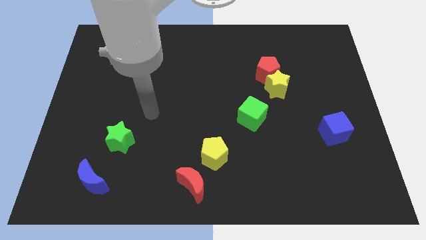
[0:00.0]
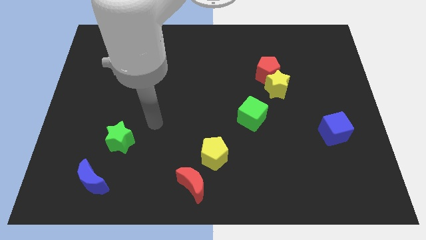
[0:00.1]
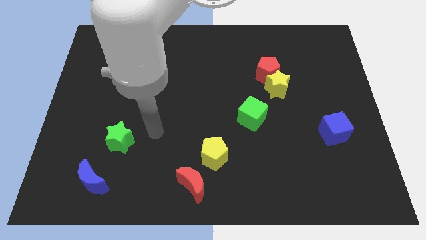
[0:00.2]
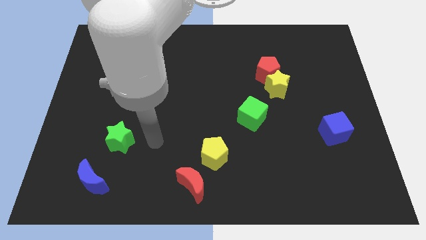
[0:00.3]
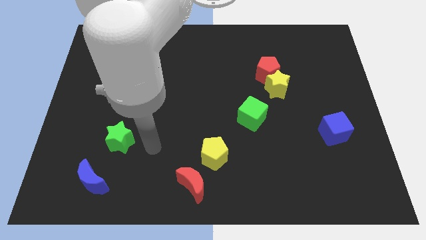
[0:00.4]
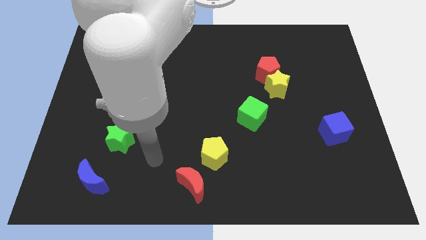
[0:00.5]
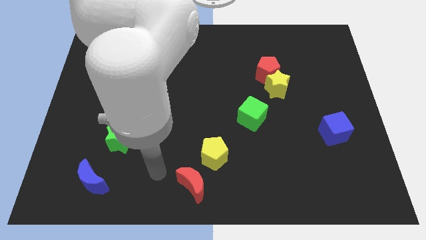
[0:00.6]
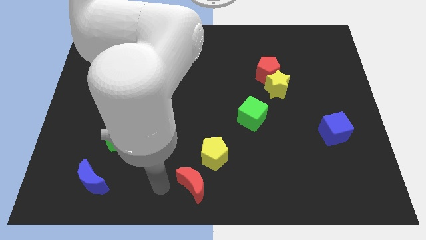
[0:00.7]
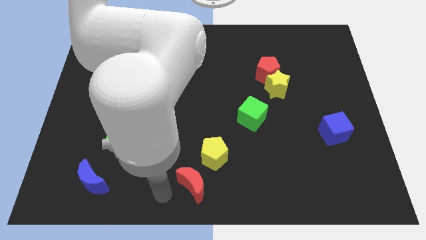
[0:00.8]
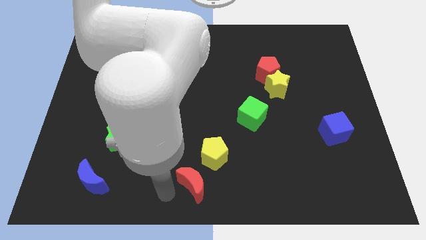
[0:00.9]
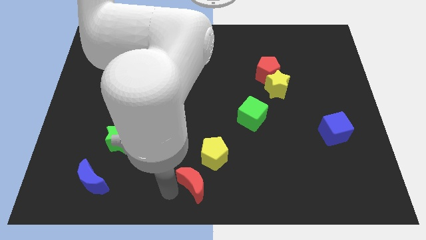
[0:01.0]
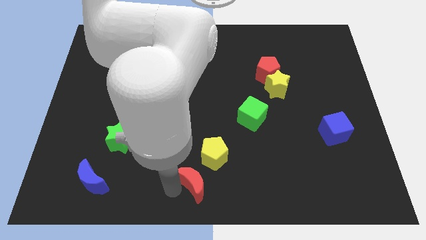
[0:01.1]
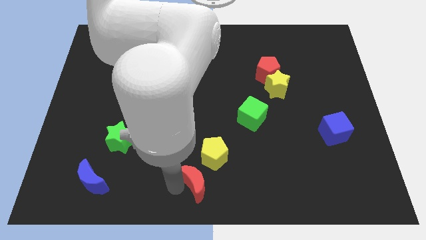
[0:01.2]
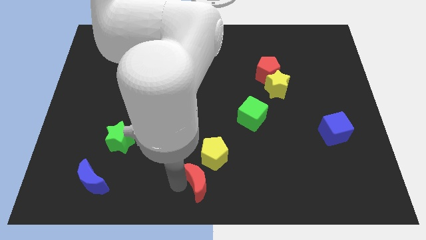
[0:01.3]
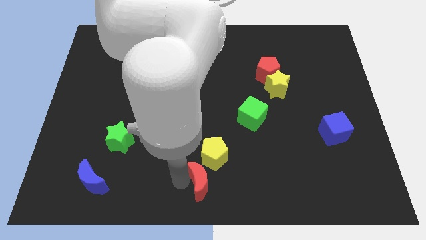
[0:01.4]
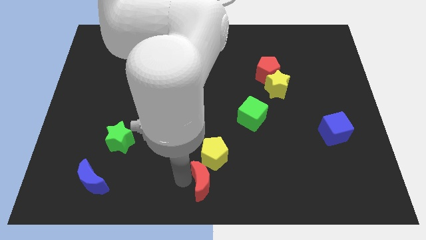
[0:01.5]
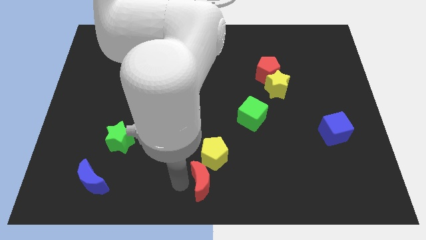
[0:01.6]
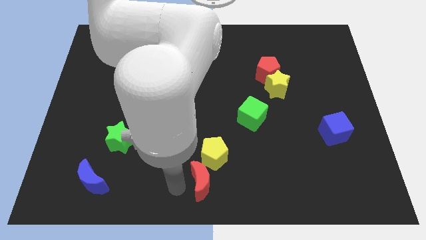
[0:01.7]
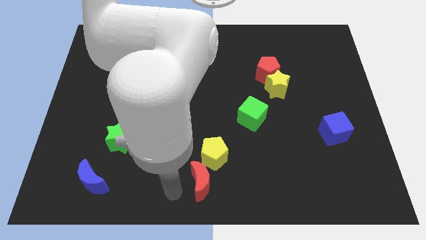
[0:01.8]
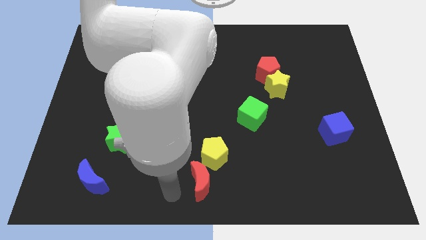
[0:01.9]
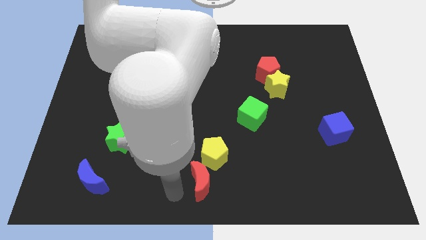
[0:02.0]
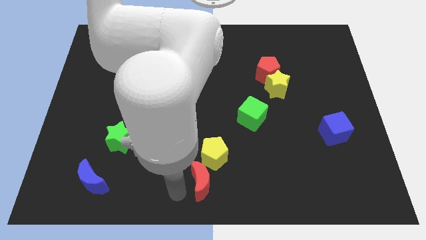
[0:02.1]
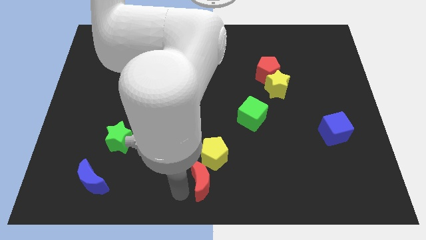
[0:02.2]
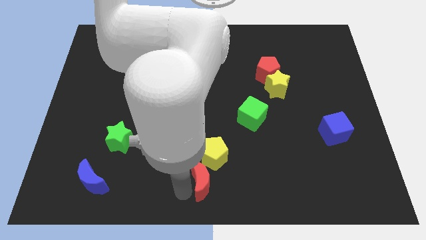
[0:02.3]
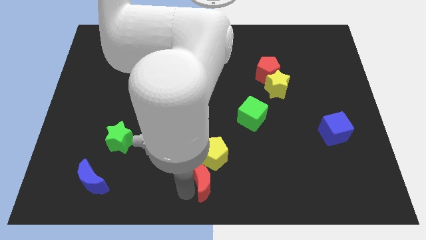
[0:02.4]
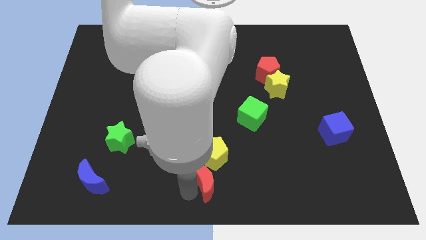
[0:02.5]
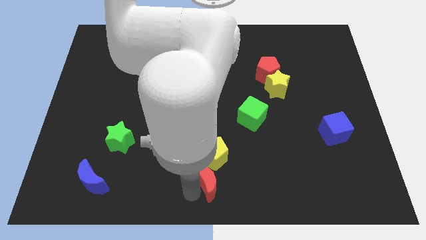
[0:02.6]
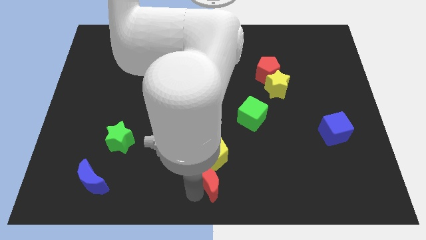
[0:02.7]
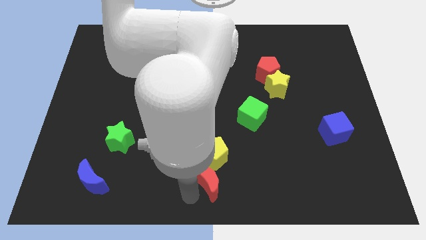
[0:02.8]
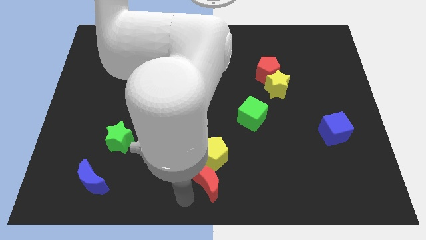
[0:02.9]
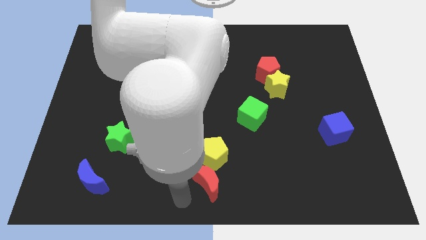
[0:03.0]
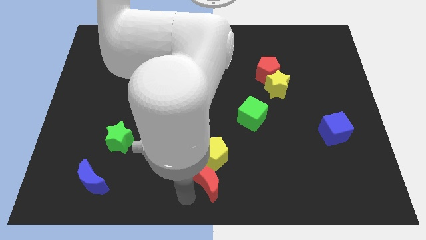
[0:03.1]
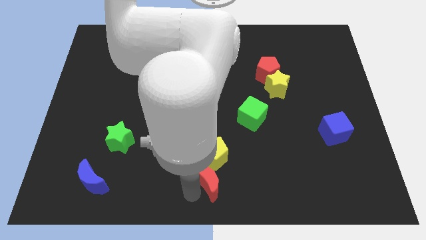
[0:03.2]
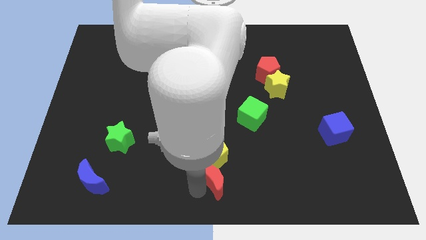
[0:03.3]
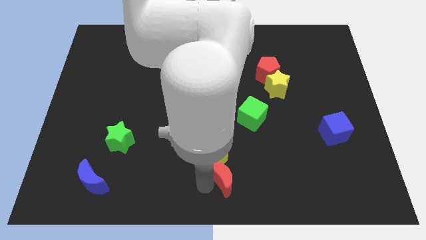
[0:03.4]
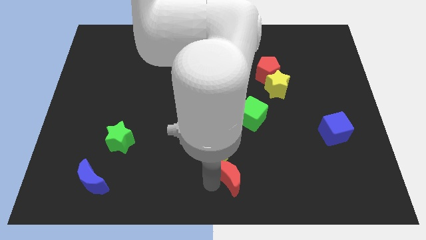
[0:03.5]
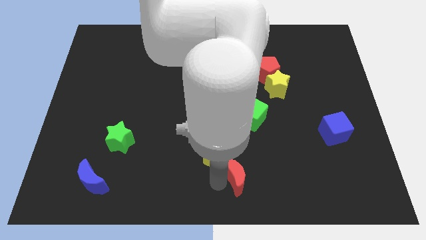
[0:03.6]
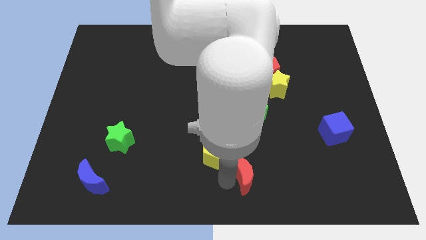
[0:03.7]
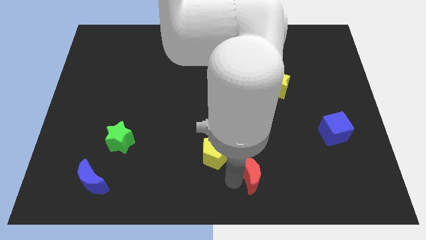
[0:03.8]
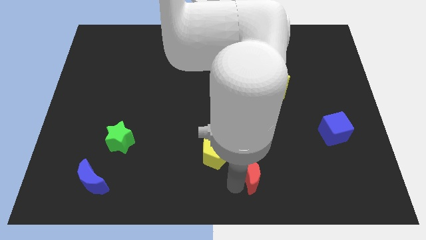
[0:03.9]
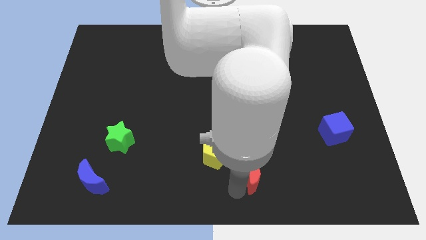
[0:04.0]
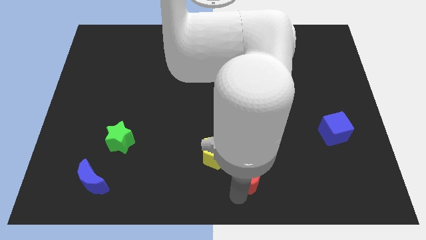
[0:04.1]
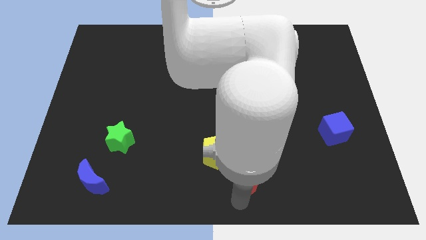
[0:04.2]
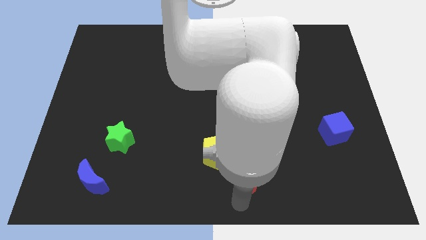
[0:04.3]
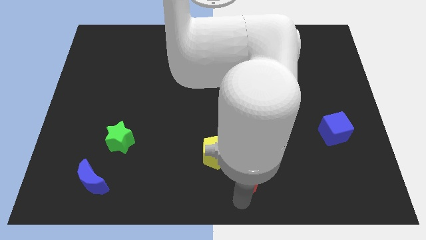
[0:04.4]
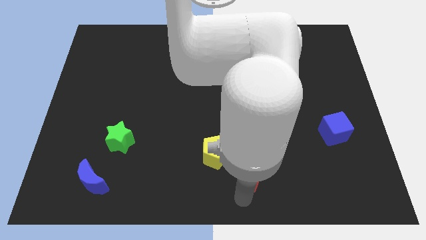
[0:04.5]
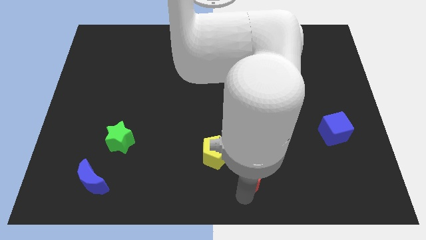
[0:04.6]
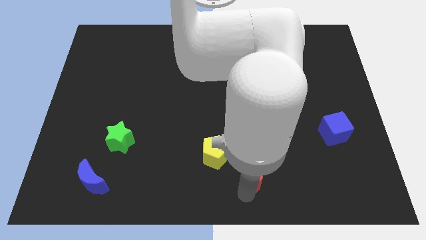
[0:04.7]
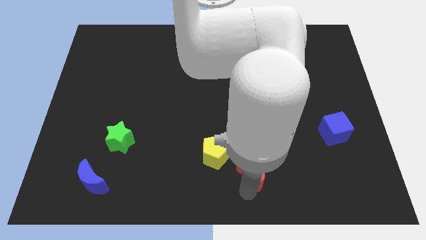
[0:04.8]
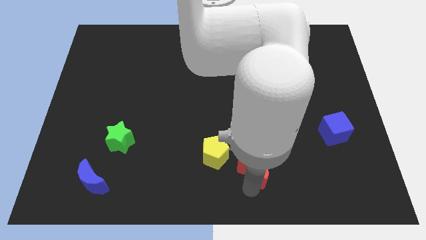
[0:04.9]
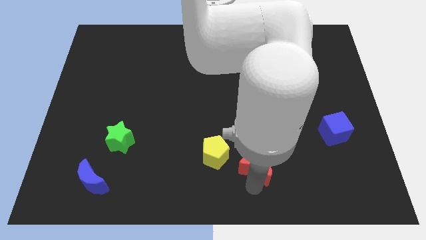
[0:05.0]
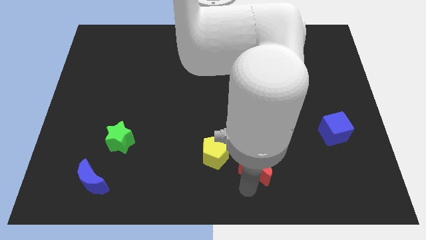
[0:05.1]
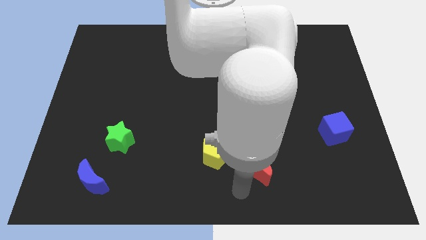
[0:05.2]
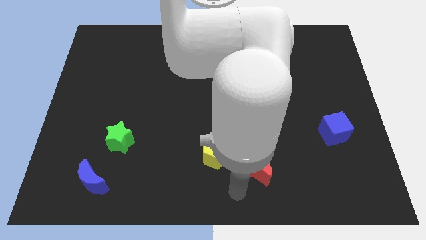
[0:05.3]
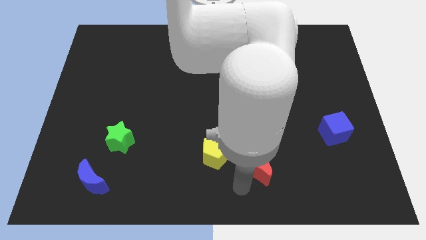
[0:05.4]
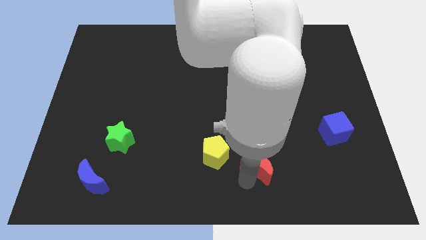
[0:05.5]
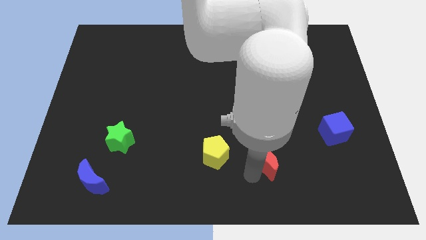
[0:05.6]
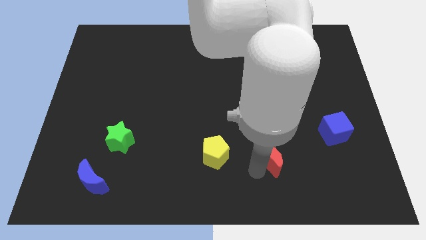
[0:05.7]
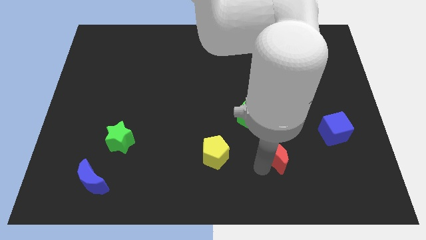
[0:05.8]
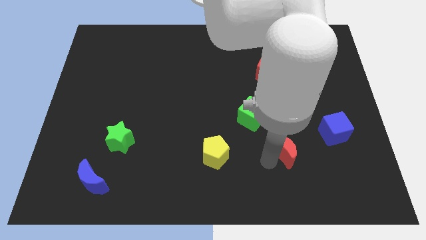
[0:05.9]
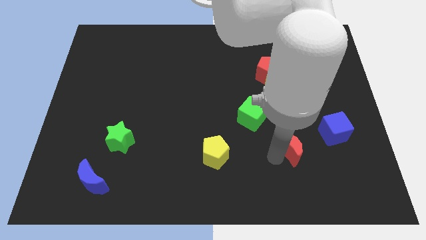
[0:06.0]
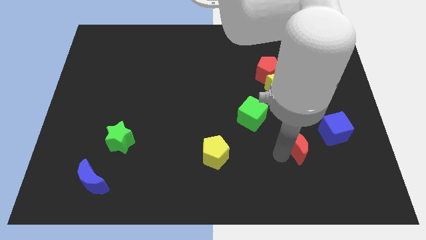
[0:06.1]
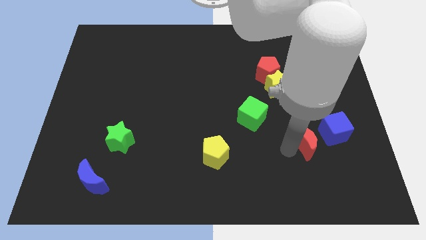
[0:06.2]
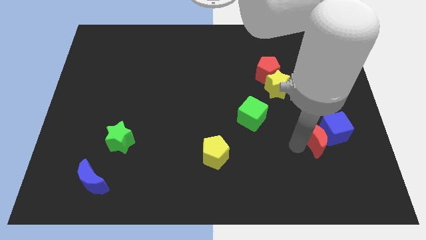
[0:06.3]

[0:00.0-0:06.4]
slide the red moon next to the blue cube

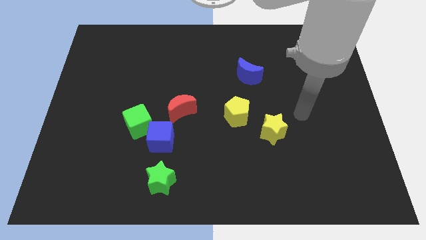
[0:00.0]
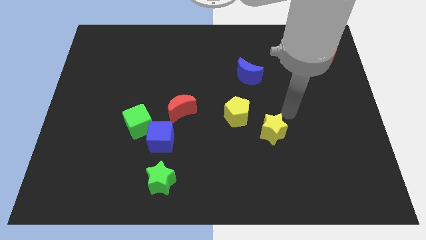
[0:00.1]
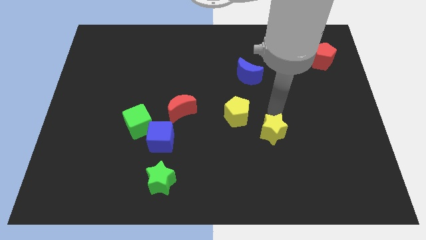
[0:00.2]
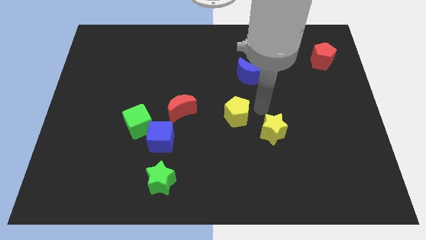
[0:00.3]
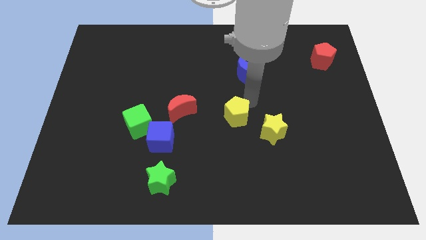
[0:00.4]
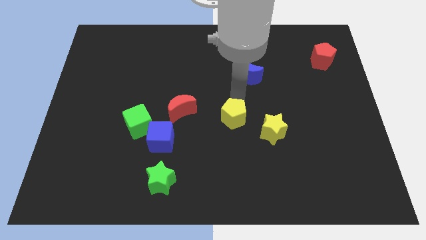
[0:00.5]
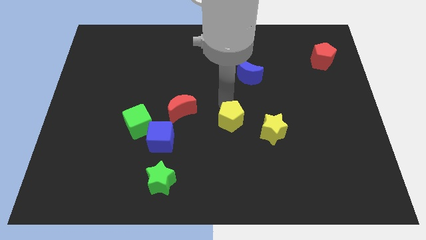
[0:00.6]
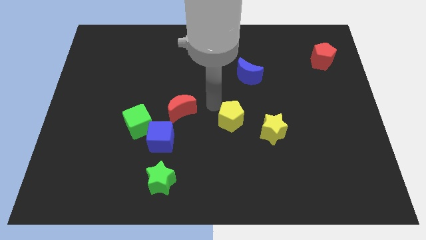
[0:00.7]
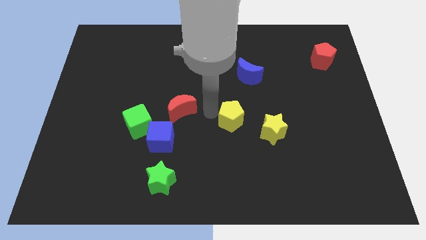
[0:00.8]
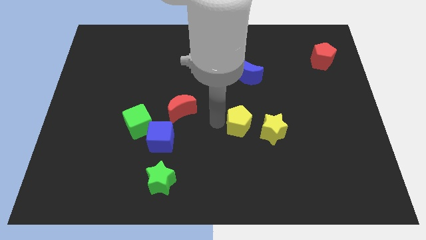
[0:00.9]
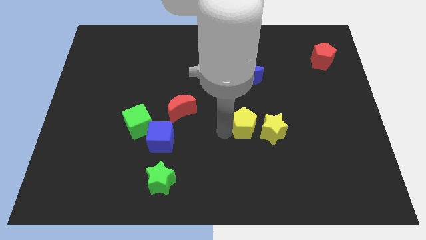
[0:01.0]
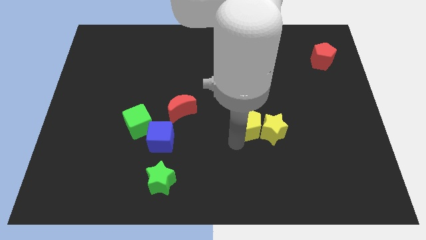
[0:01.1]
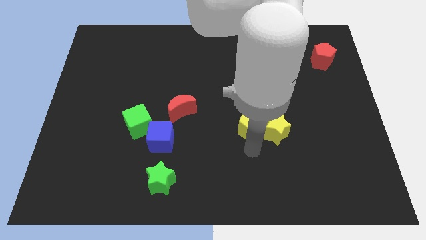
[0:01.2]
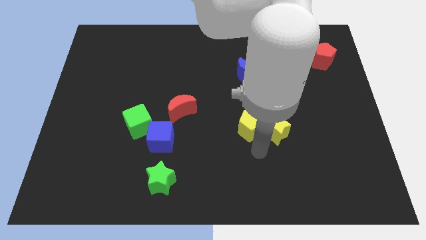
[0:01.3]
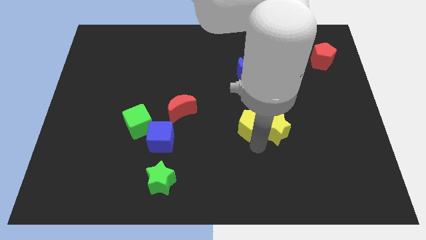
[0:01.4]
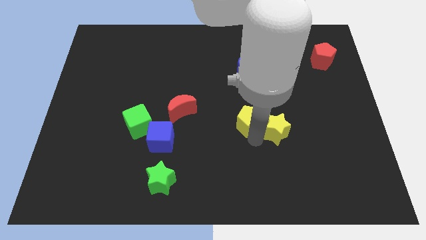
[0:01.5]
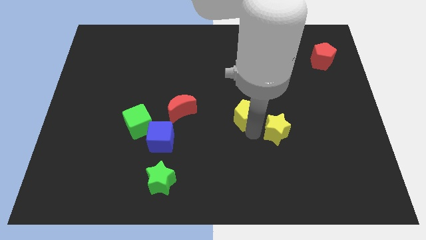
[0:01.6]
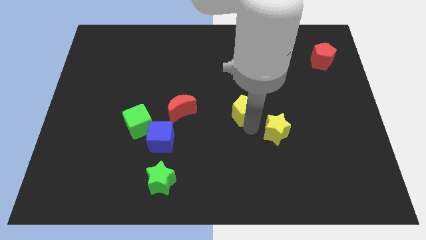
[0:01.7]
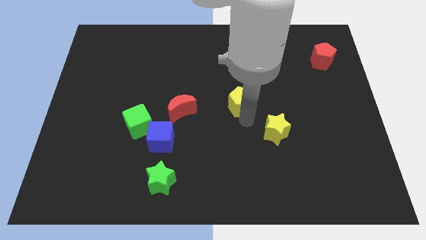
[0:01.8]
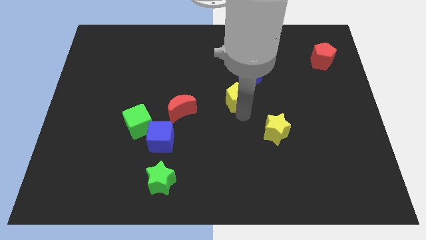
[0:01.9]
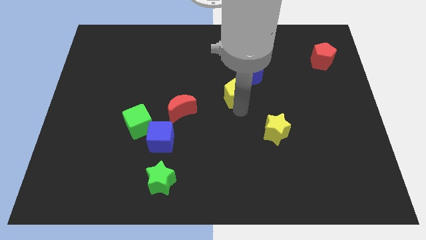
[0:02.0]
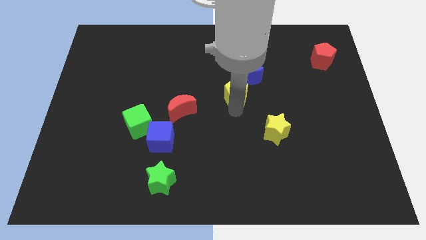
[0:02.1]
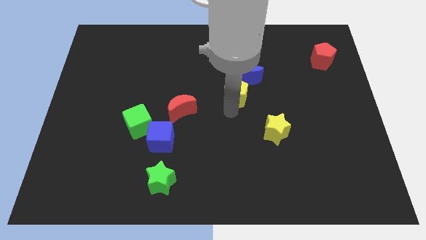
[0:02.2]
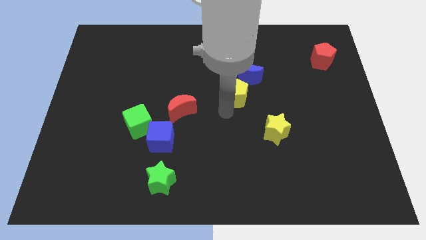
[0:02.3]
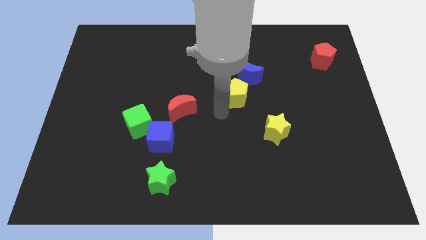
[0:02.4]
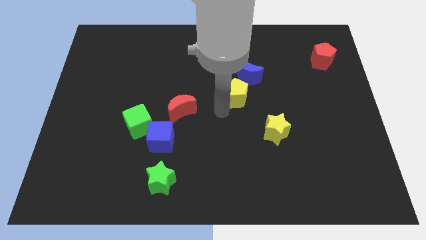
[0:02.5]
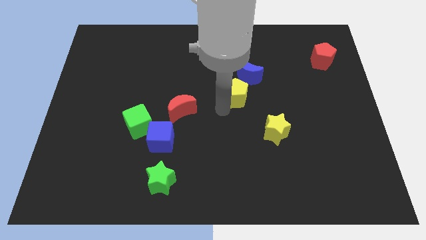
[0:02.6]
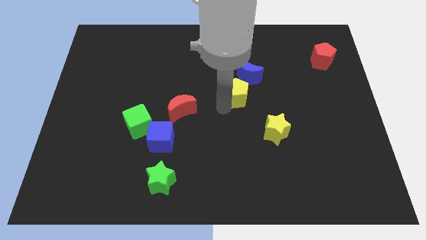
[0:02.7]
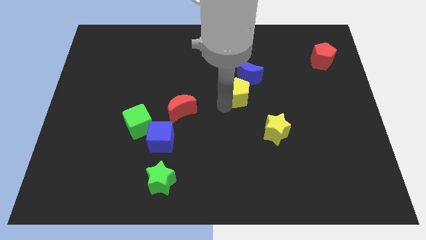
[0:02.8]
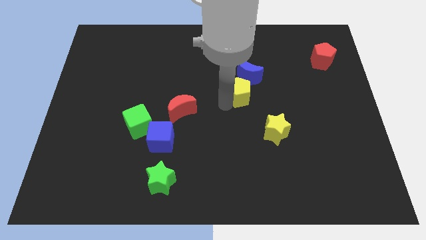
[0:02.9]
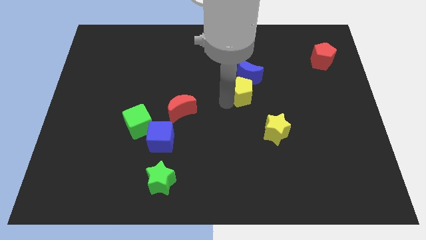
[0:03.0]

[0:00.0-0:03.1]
push the yellow pentagon towards the blue moon
